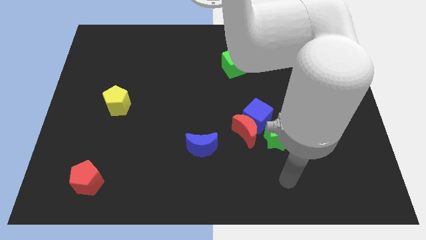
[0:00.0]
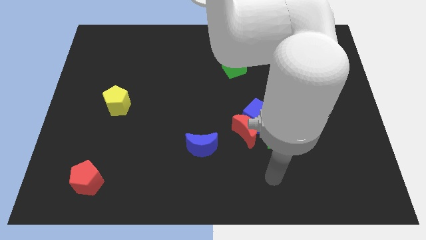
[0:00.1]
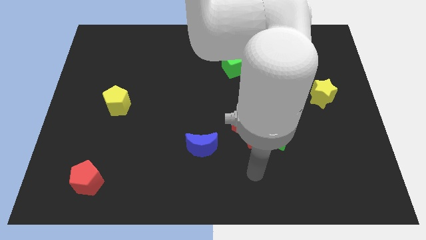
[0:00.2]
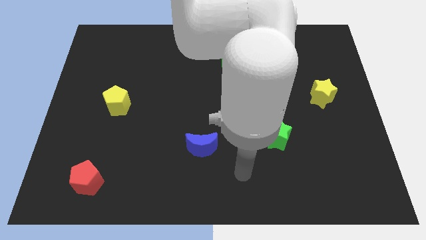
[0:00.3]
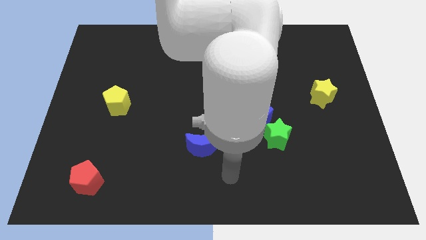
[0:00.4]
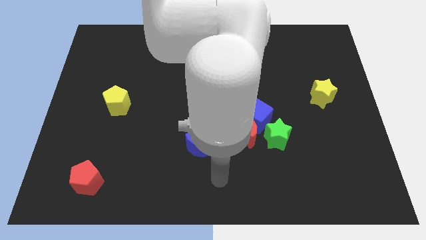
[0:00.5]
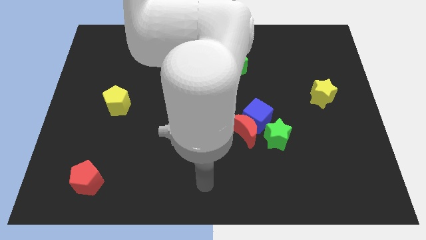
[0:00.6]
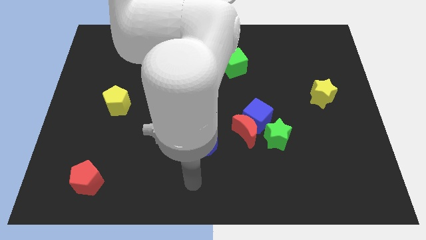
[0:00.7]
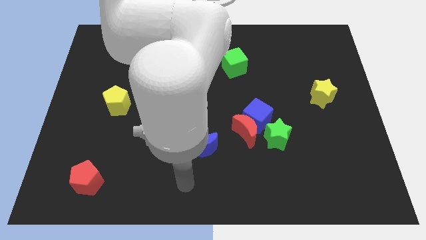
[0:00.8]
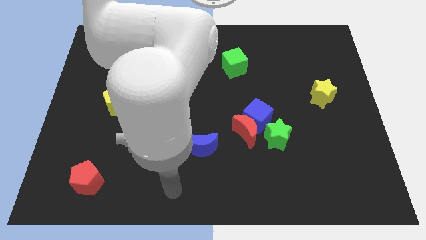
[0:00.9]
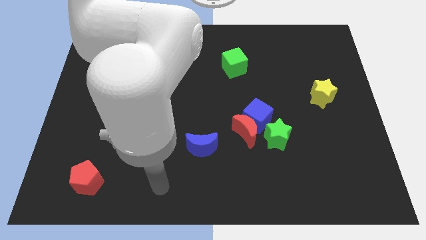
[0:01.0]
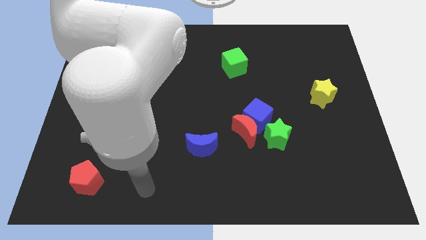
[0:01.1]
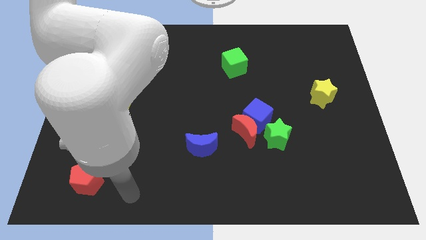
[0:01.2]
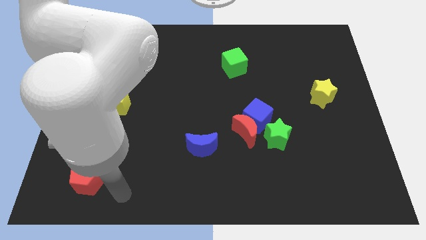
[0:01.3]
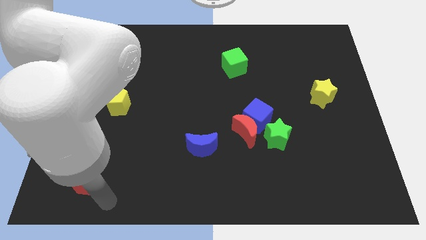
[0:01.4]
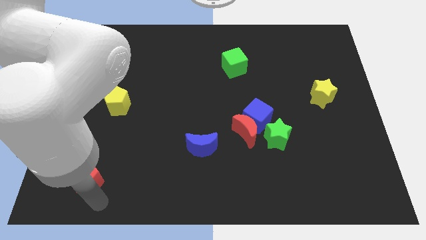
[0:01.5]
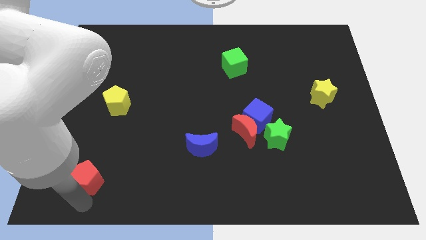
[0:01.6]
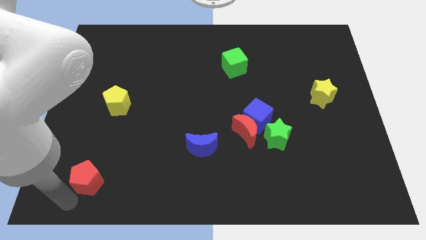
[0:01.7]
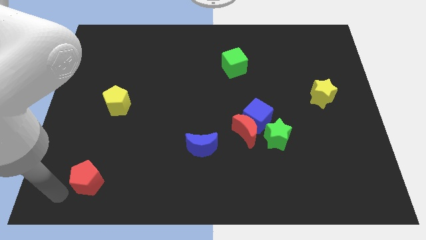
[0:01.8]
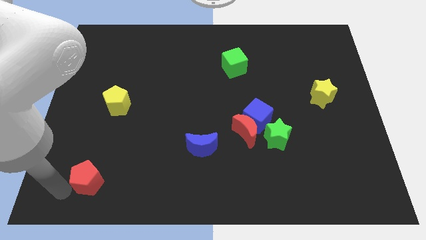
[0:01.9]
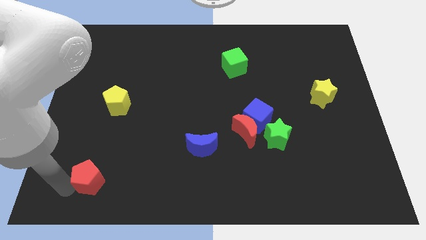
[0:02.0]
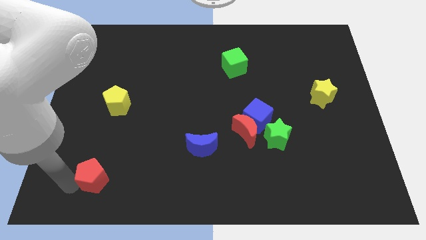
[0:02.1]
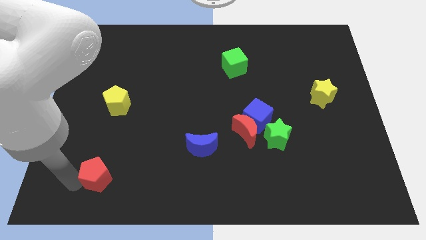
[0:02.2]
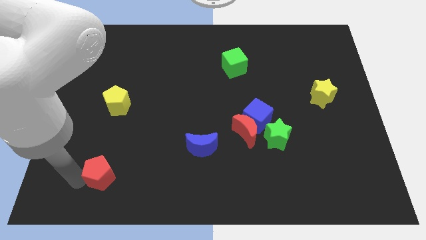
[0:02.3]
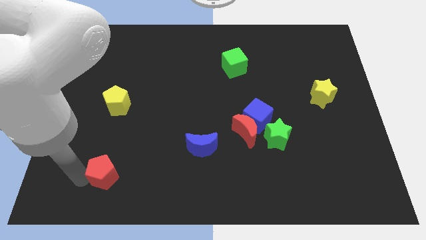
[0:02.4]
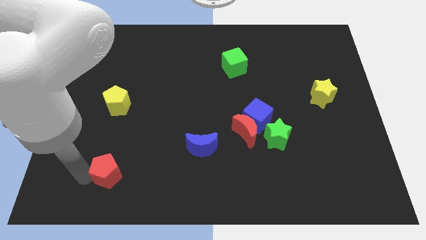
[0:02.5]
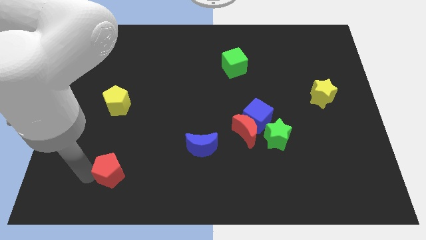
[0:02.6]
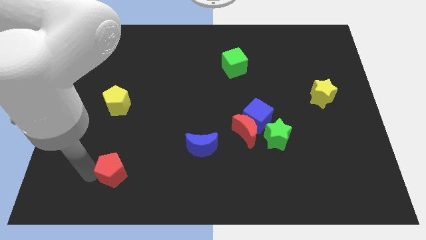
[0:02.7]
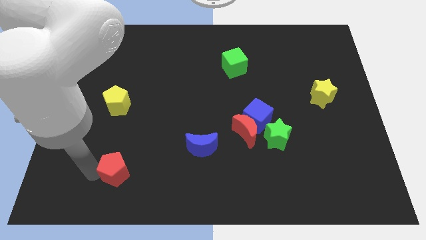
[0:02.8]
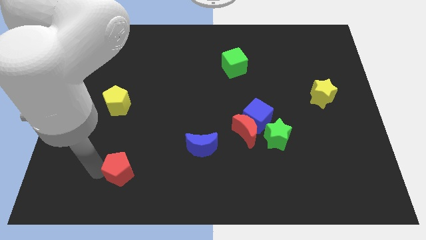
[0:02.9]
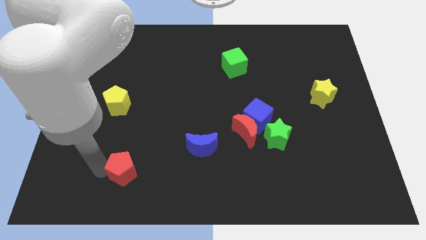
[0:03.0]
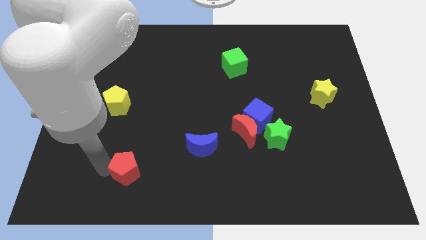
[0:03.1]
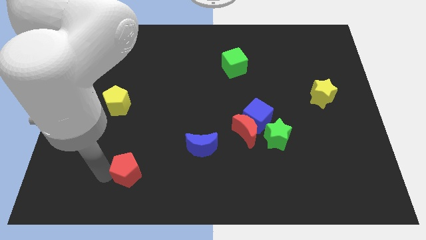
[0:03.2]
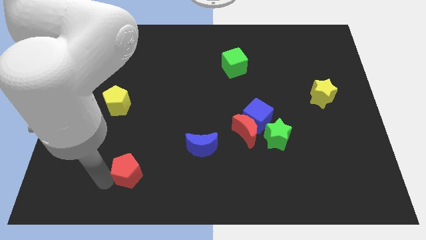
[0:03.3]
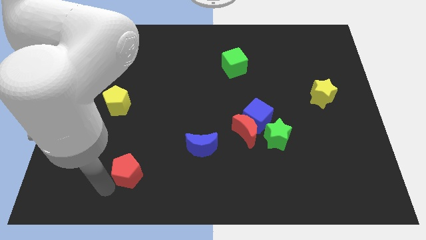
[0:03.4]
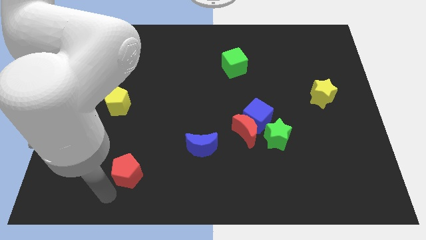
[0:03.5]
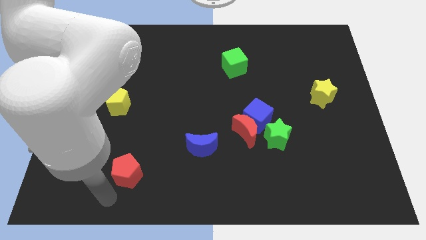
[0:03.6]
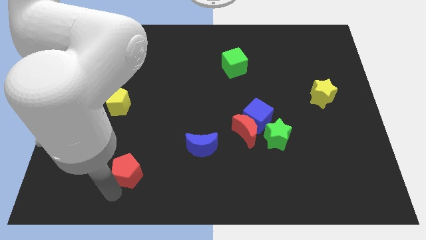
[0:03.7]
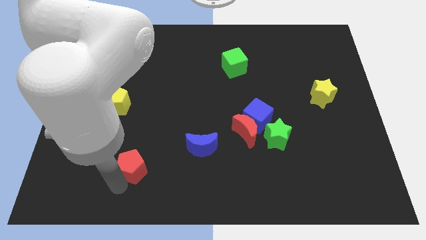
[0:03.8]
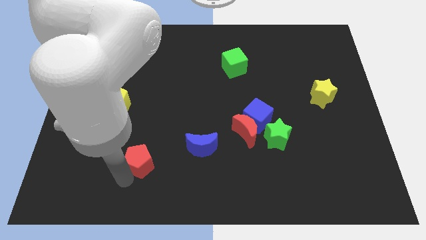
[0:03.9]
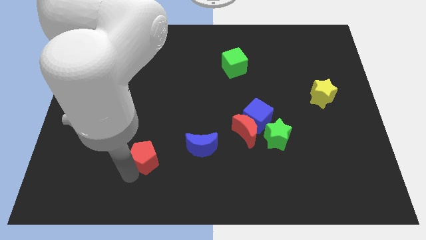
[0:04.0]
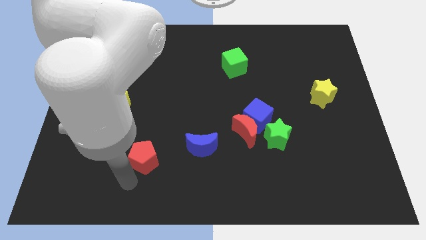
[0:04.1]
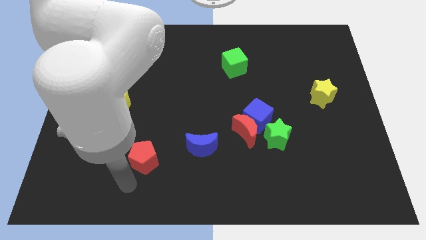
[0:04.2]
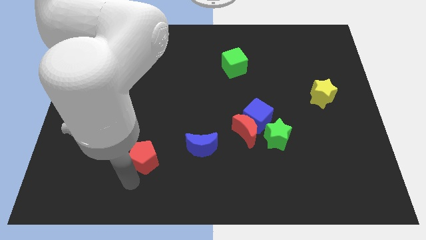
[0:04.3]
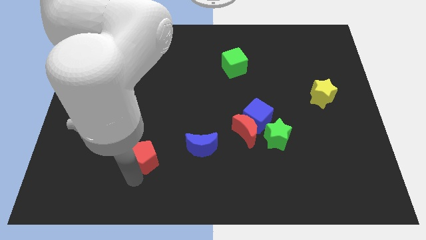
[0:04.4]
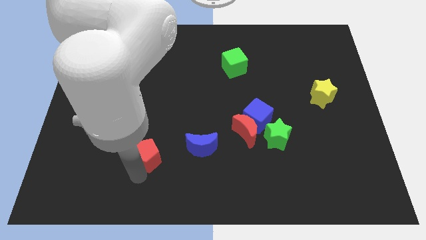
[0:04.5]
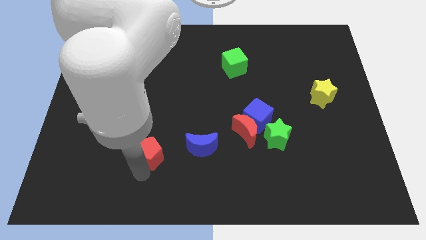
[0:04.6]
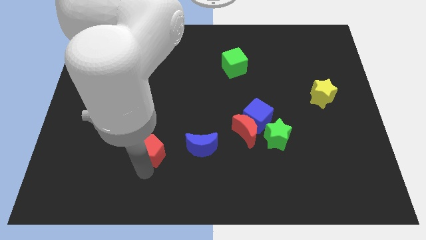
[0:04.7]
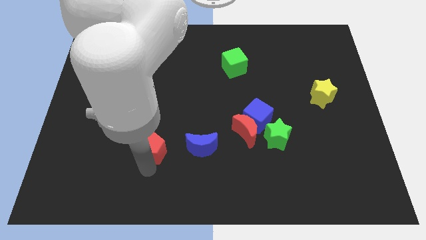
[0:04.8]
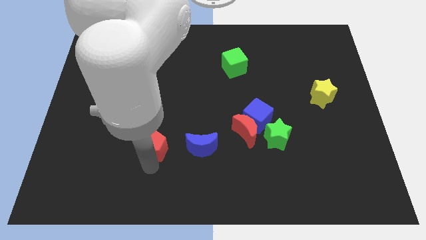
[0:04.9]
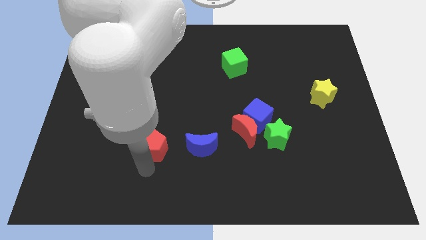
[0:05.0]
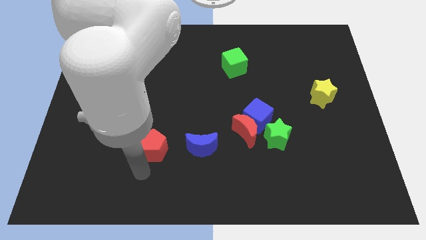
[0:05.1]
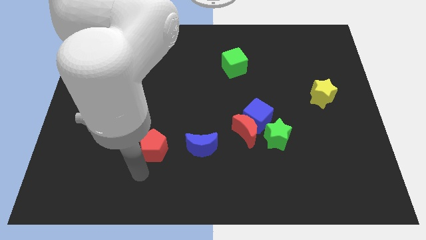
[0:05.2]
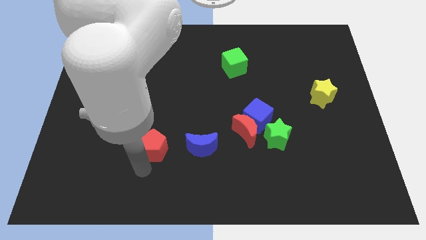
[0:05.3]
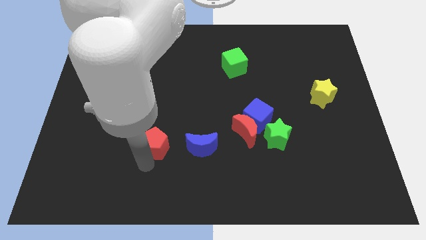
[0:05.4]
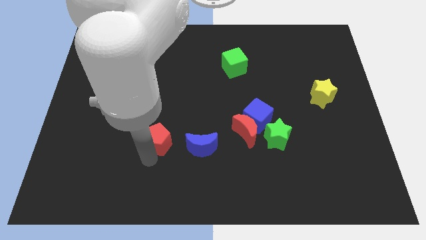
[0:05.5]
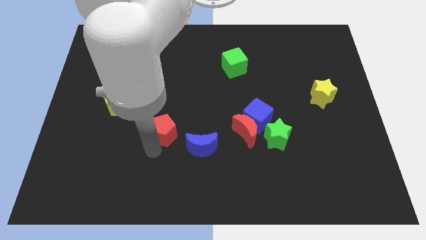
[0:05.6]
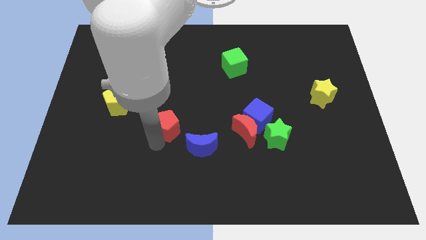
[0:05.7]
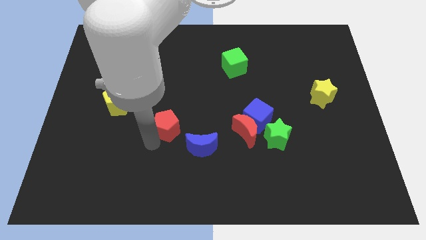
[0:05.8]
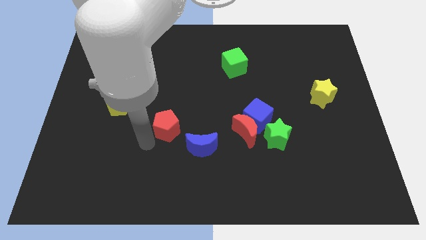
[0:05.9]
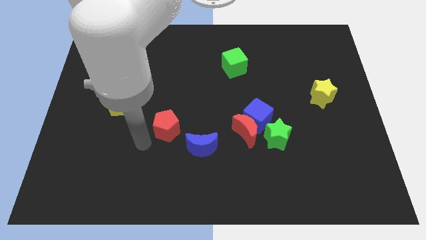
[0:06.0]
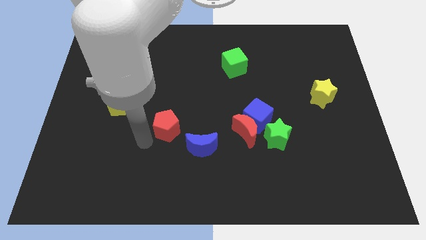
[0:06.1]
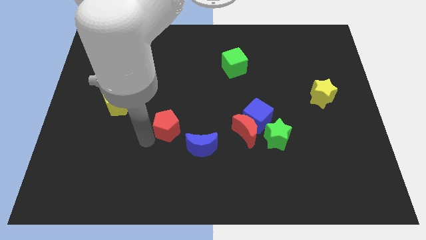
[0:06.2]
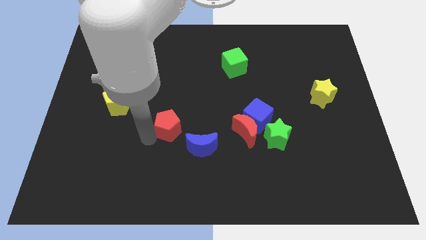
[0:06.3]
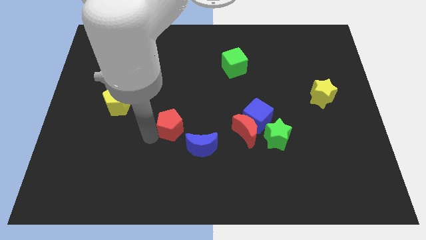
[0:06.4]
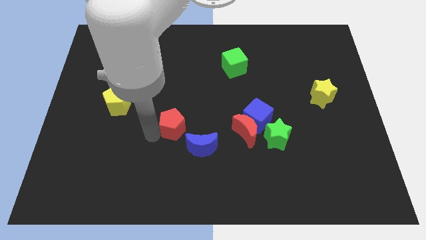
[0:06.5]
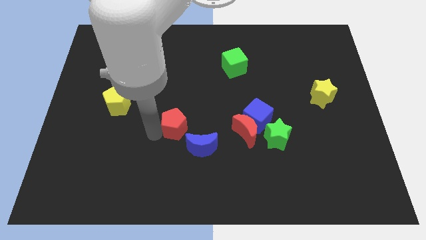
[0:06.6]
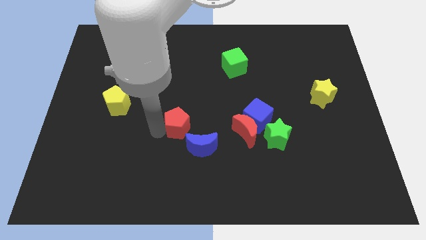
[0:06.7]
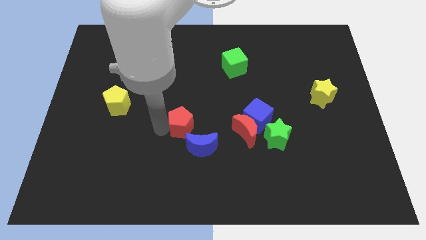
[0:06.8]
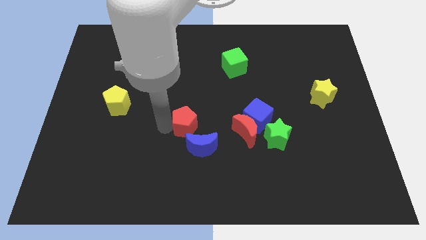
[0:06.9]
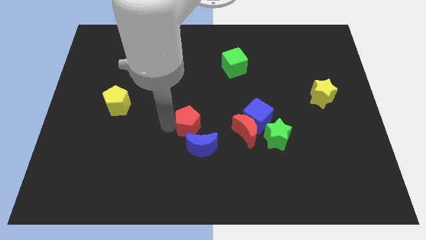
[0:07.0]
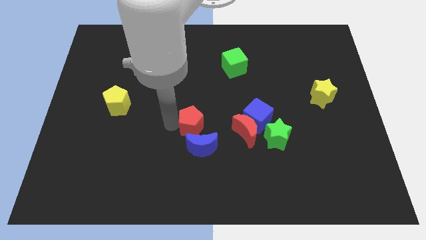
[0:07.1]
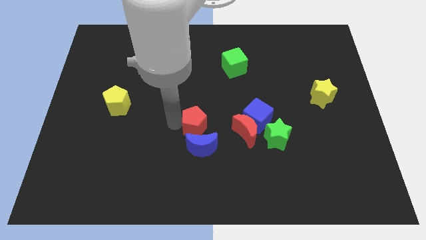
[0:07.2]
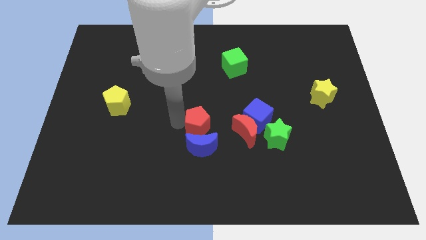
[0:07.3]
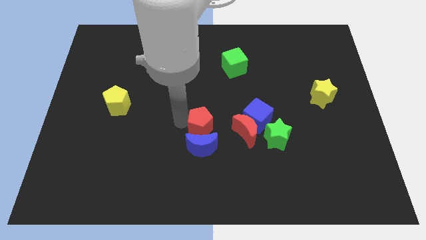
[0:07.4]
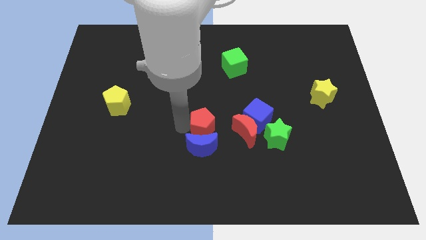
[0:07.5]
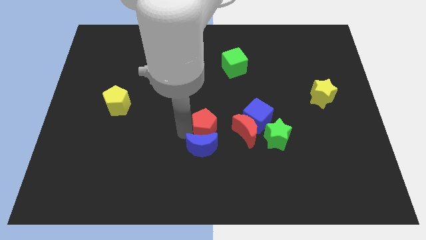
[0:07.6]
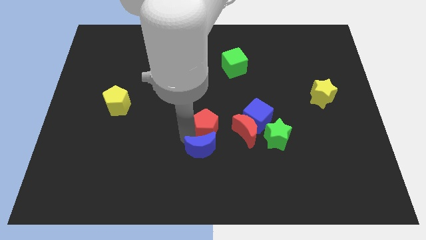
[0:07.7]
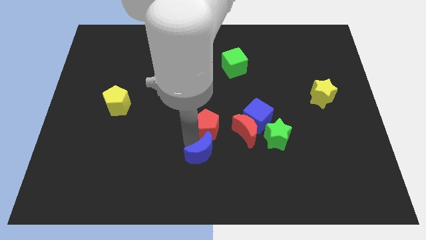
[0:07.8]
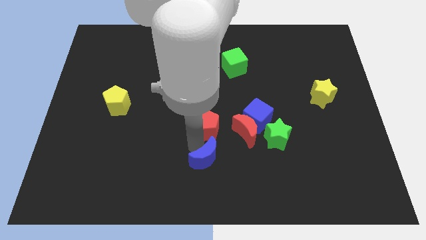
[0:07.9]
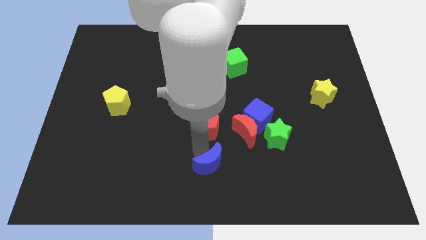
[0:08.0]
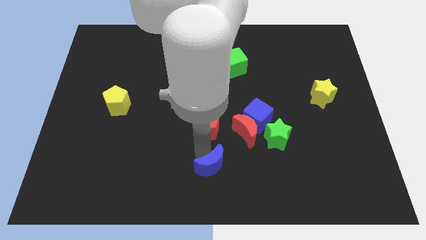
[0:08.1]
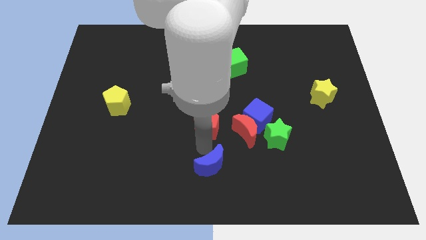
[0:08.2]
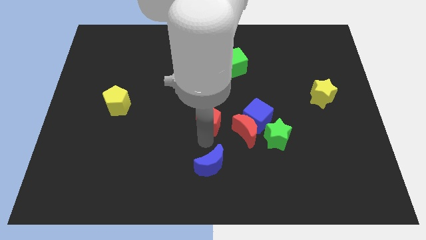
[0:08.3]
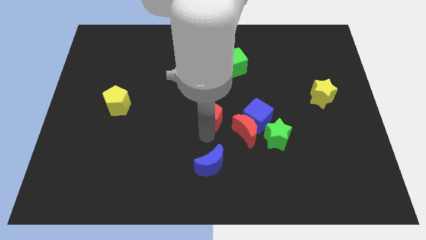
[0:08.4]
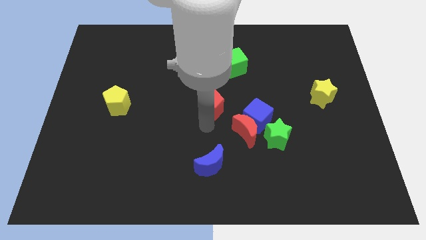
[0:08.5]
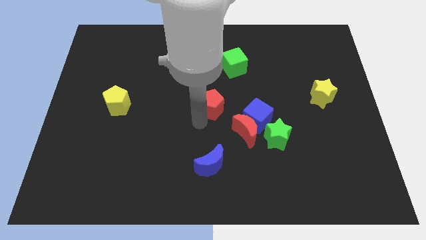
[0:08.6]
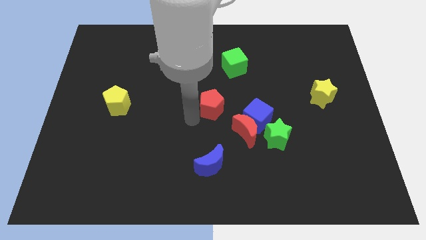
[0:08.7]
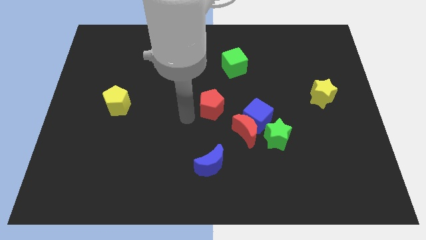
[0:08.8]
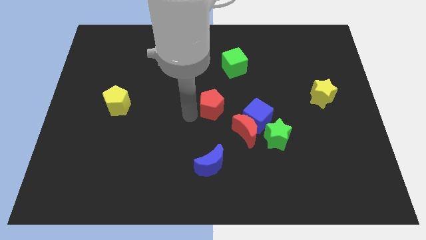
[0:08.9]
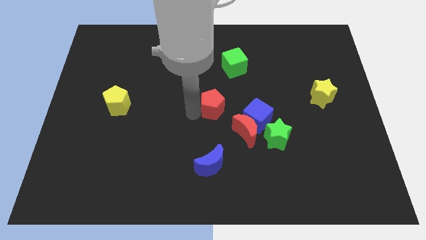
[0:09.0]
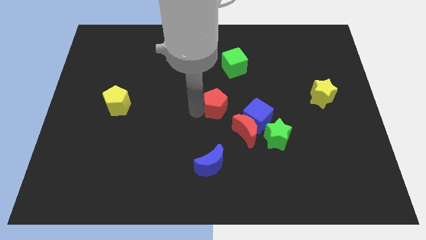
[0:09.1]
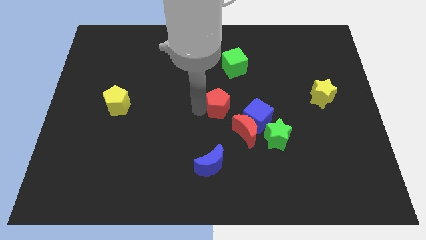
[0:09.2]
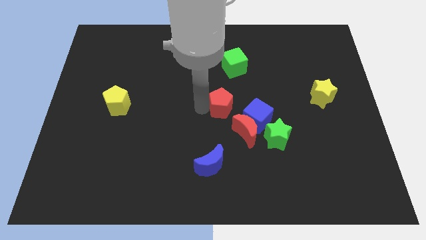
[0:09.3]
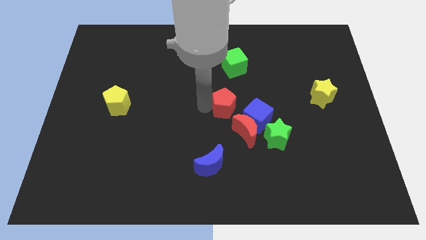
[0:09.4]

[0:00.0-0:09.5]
push the red pentagon above the red moon
